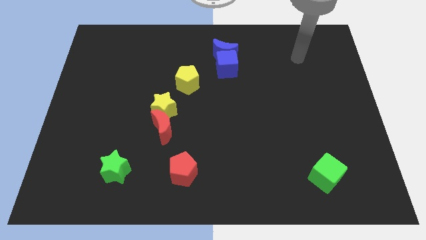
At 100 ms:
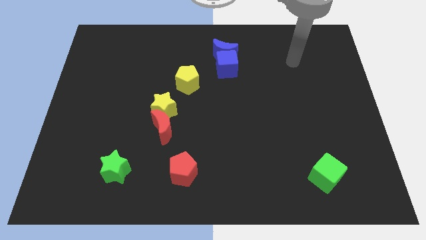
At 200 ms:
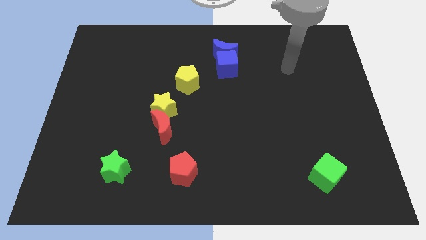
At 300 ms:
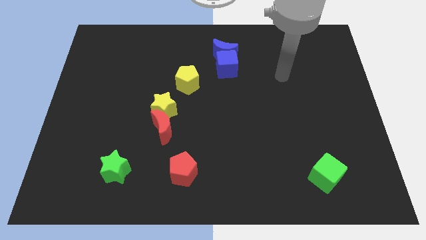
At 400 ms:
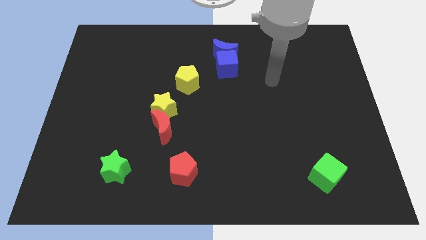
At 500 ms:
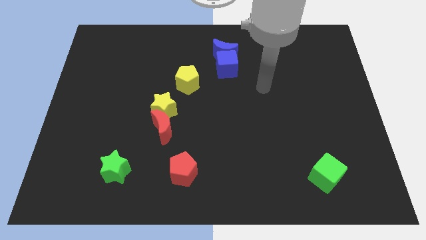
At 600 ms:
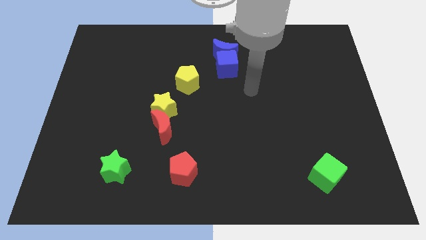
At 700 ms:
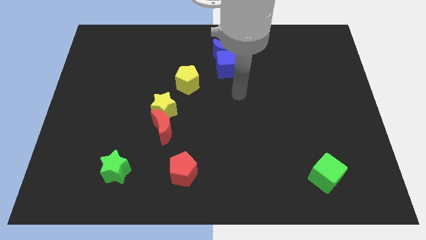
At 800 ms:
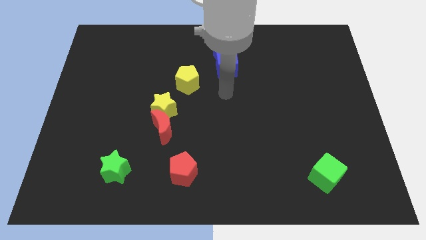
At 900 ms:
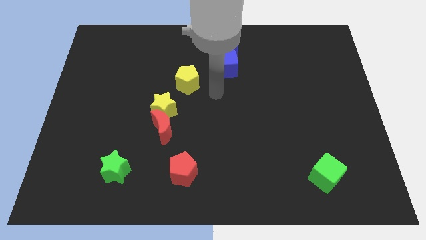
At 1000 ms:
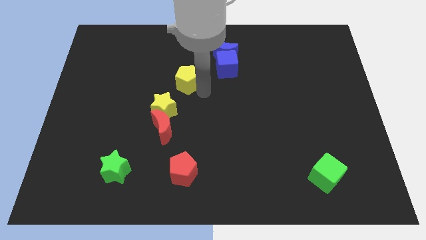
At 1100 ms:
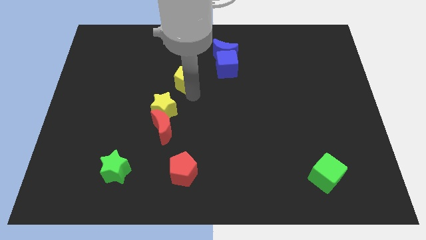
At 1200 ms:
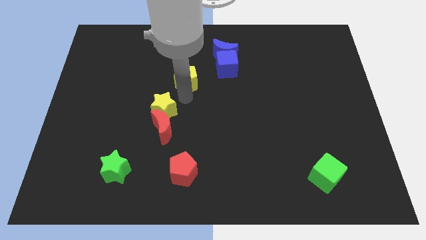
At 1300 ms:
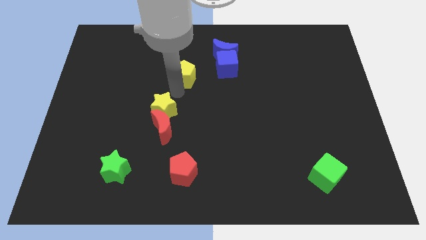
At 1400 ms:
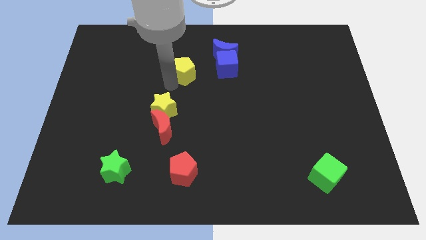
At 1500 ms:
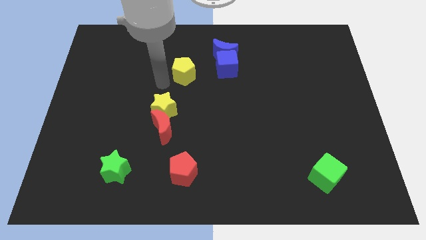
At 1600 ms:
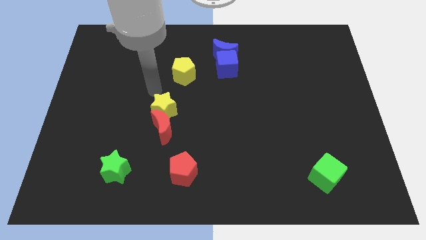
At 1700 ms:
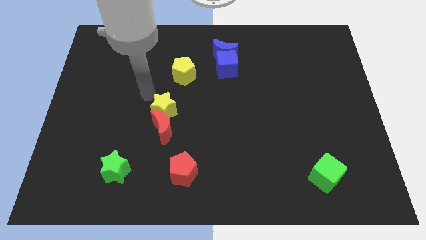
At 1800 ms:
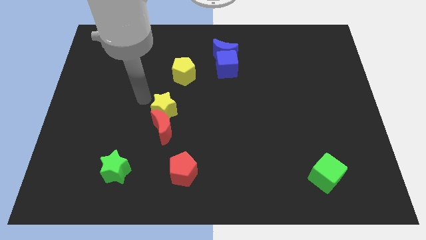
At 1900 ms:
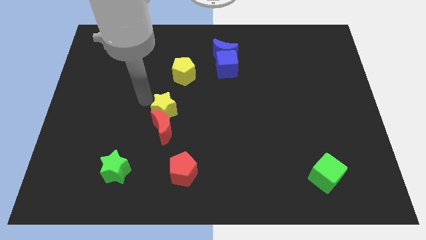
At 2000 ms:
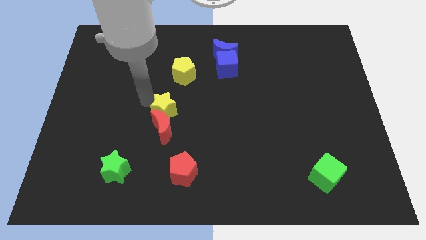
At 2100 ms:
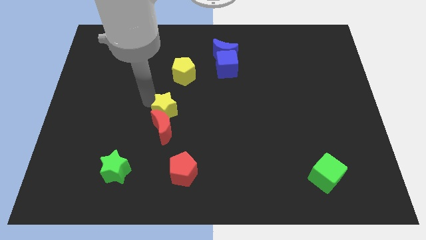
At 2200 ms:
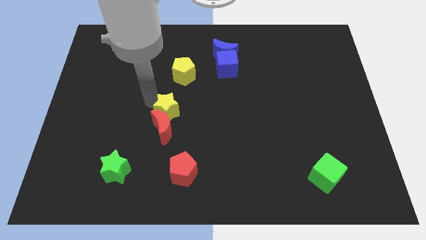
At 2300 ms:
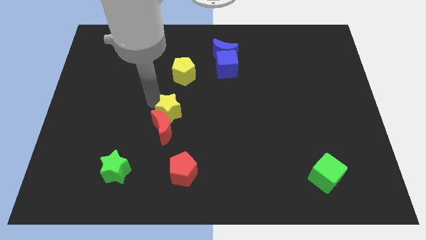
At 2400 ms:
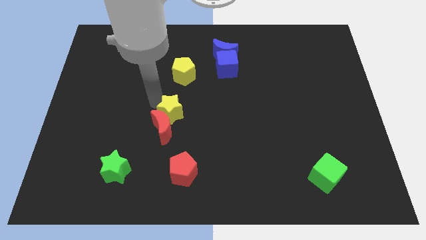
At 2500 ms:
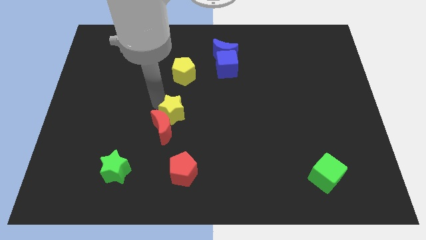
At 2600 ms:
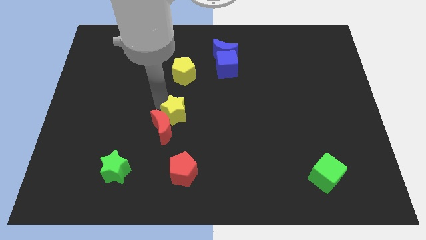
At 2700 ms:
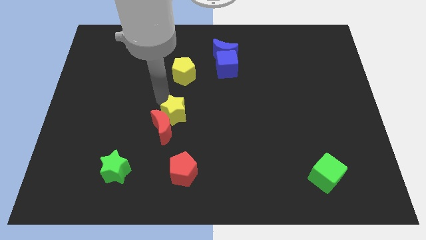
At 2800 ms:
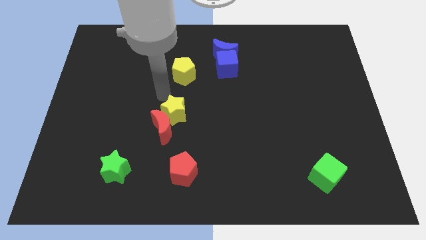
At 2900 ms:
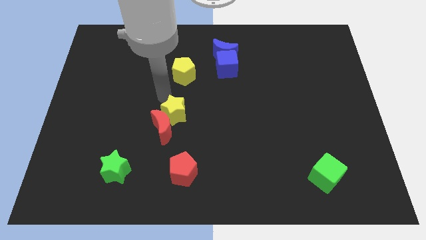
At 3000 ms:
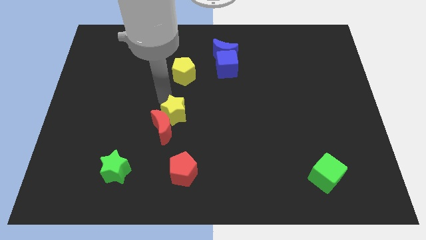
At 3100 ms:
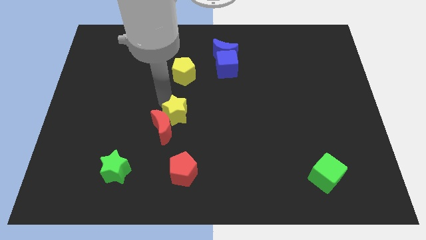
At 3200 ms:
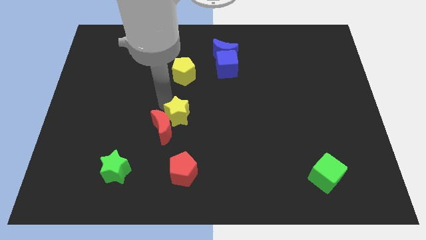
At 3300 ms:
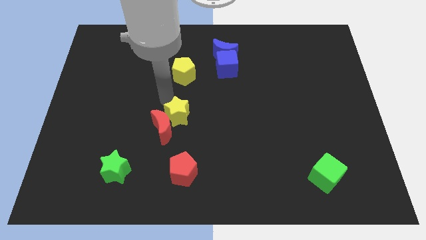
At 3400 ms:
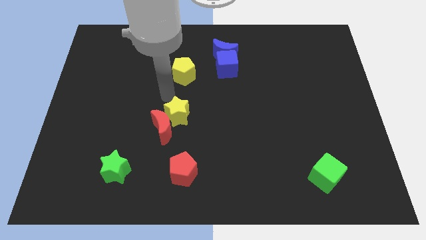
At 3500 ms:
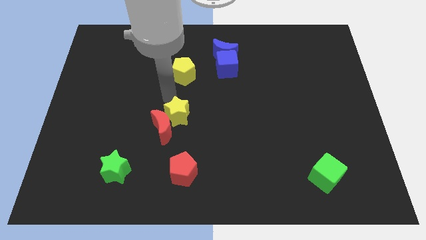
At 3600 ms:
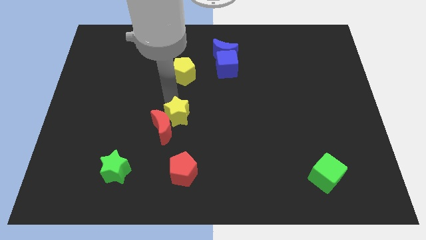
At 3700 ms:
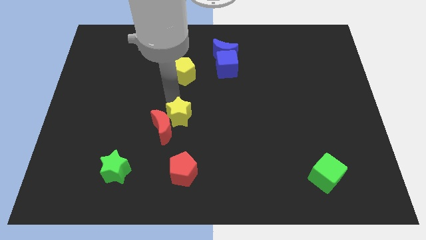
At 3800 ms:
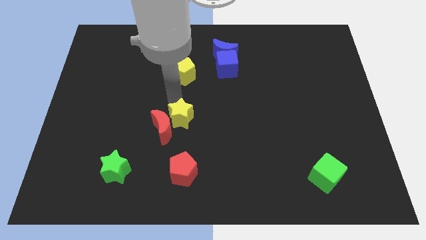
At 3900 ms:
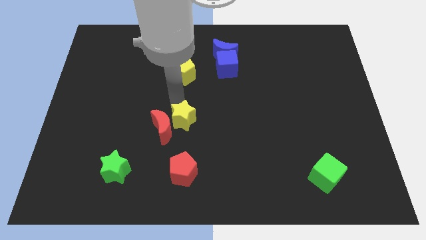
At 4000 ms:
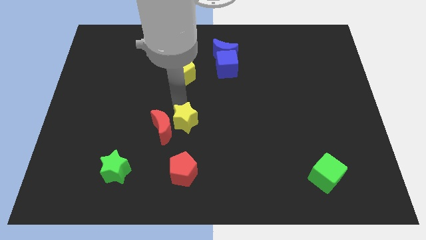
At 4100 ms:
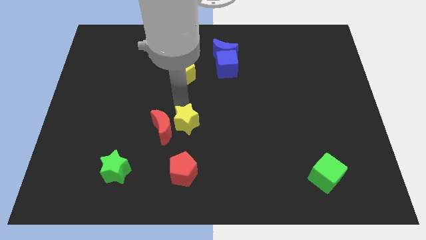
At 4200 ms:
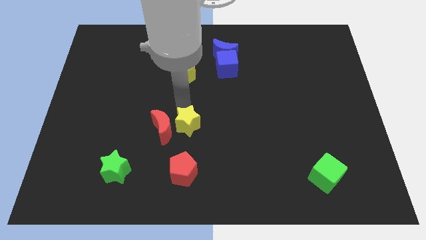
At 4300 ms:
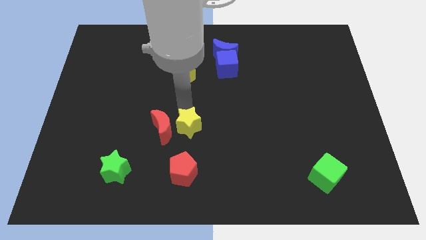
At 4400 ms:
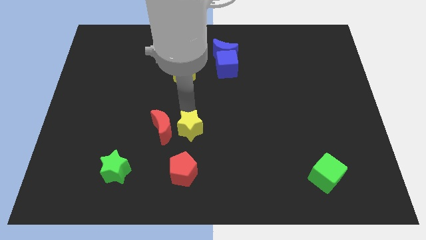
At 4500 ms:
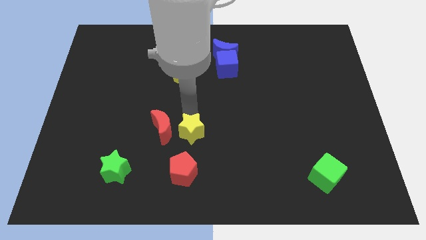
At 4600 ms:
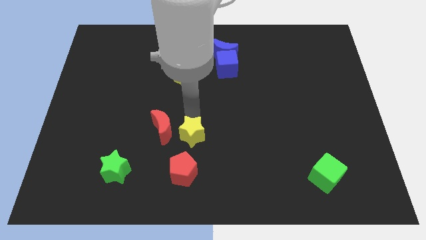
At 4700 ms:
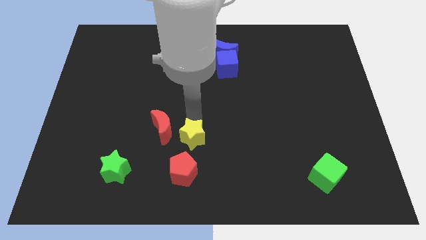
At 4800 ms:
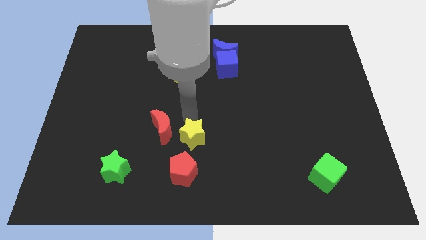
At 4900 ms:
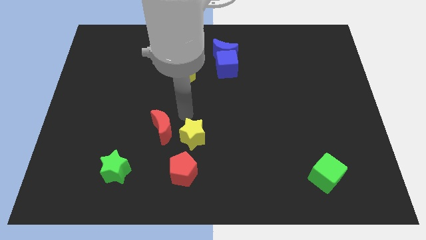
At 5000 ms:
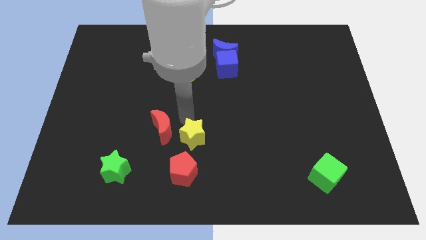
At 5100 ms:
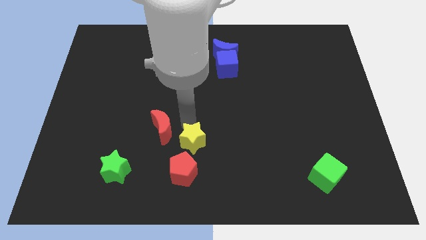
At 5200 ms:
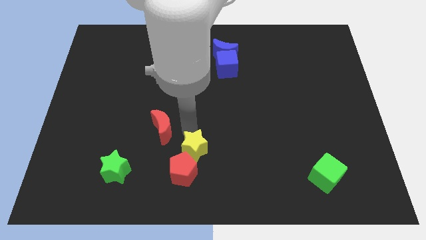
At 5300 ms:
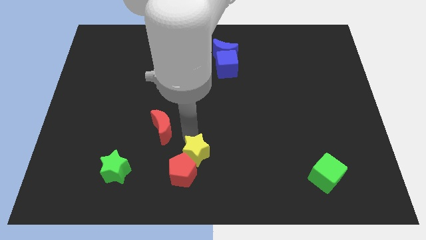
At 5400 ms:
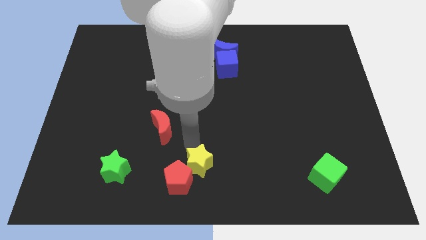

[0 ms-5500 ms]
slide the yellow star to the bottom side
